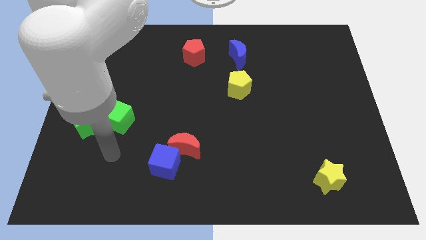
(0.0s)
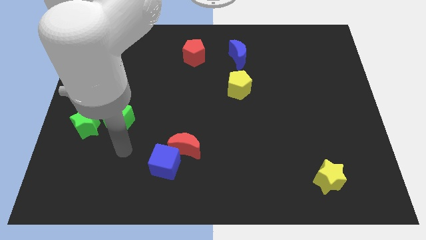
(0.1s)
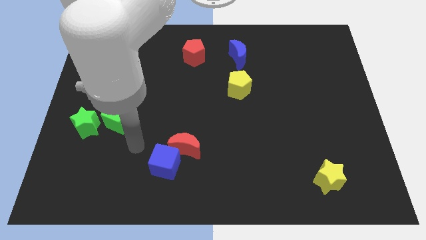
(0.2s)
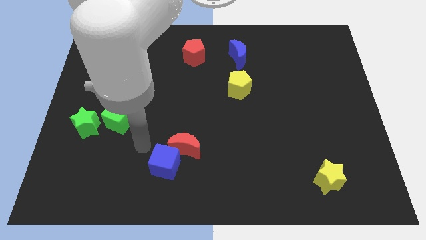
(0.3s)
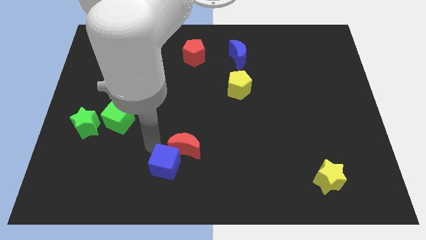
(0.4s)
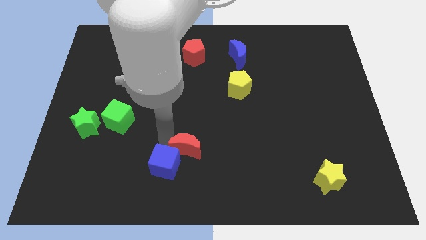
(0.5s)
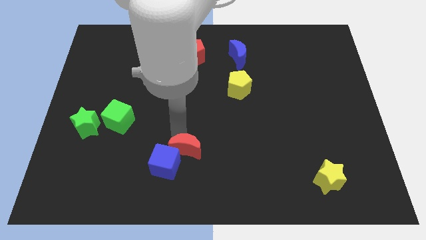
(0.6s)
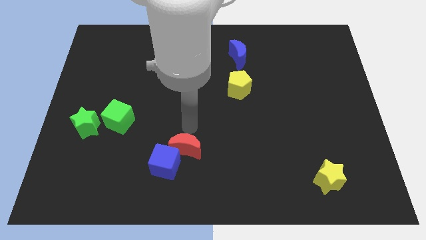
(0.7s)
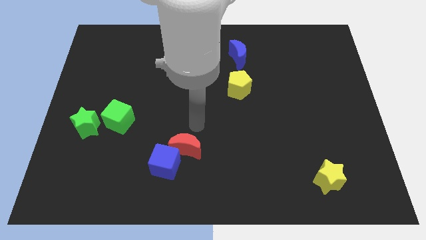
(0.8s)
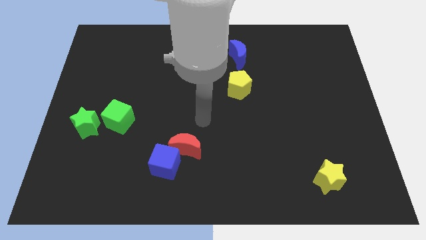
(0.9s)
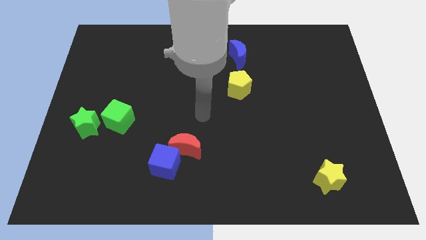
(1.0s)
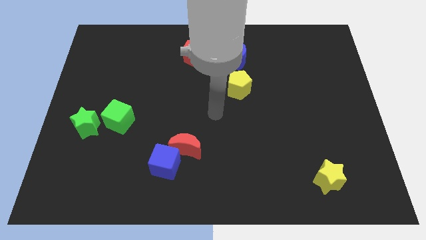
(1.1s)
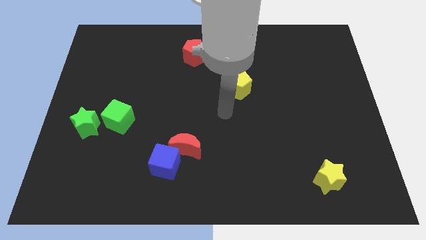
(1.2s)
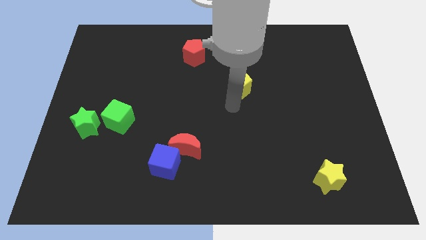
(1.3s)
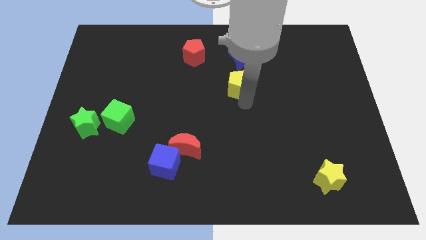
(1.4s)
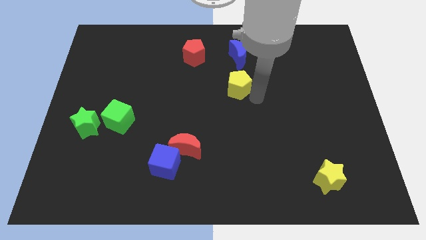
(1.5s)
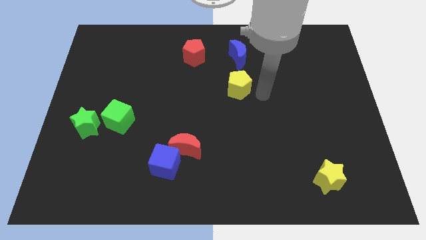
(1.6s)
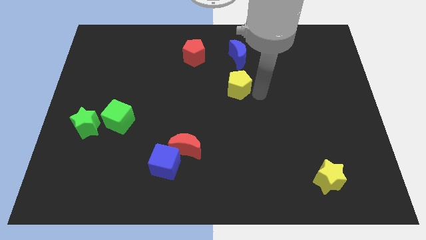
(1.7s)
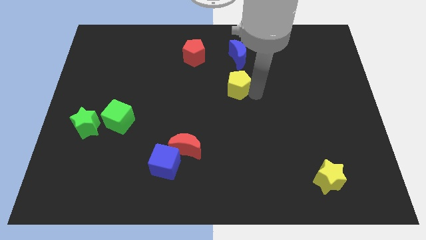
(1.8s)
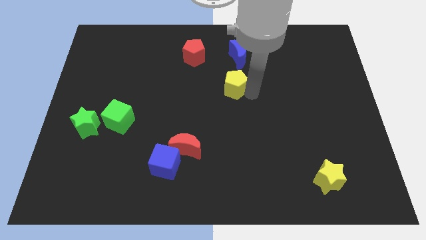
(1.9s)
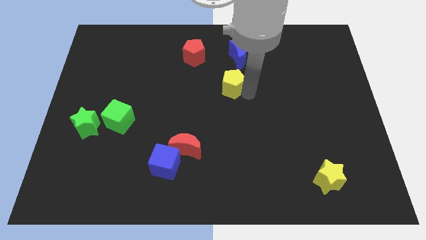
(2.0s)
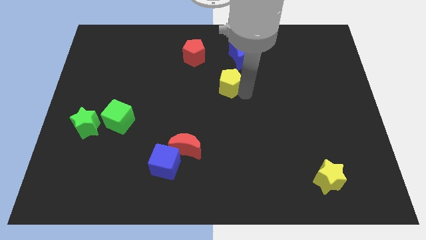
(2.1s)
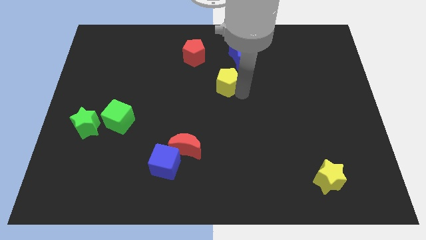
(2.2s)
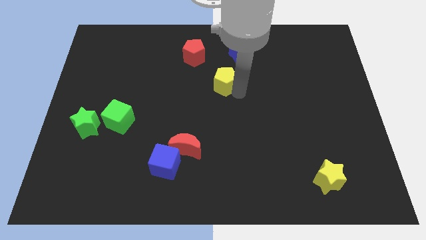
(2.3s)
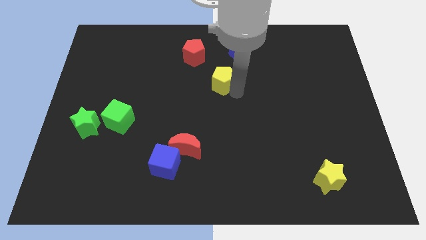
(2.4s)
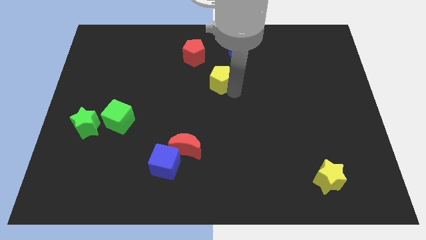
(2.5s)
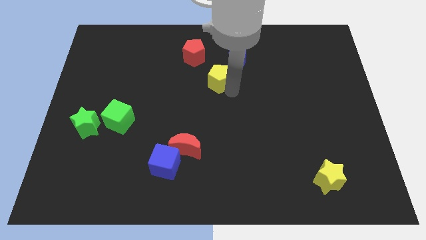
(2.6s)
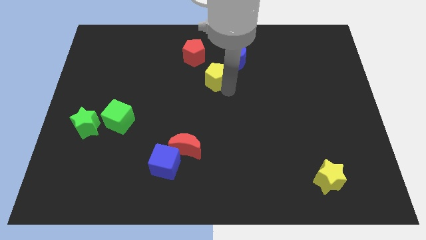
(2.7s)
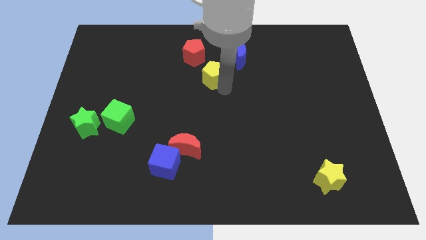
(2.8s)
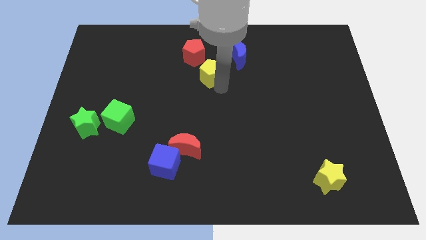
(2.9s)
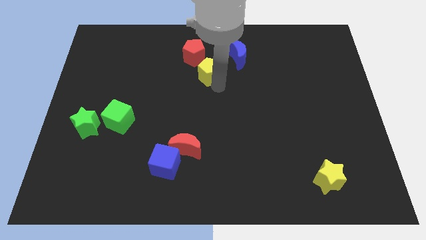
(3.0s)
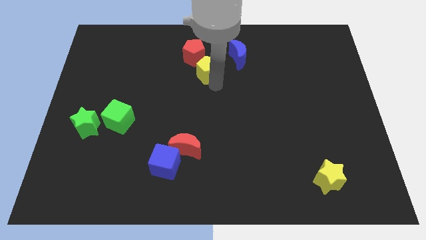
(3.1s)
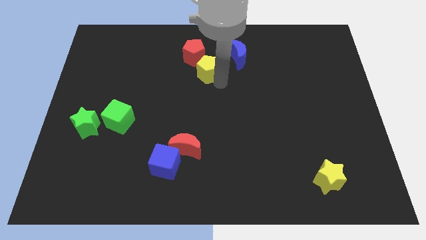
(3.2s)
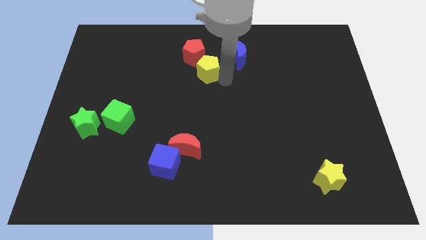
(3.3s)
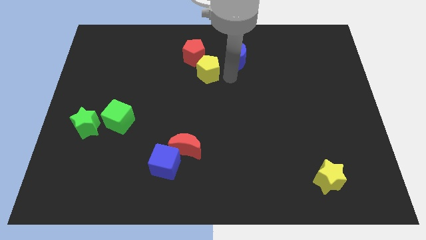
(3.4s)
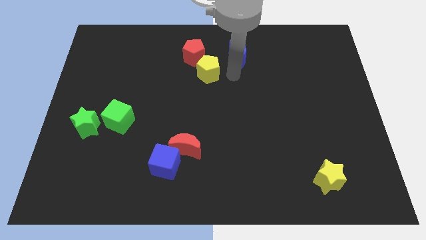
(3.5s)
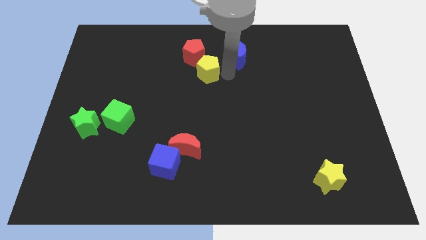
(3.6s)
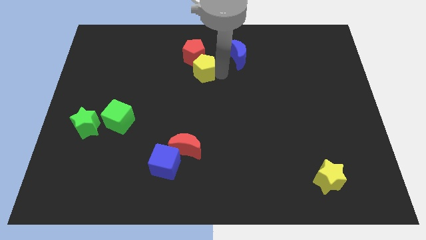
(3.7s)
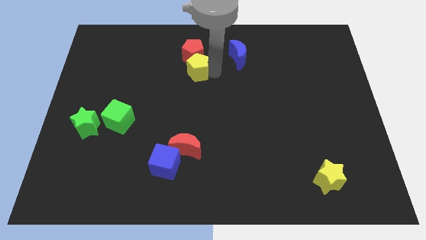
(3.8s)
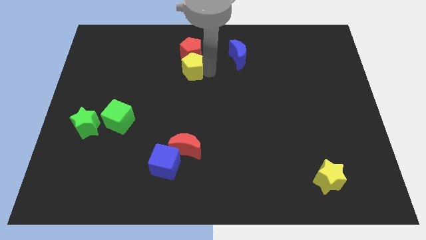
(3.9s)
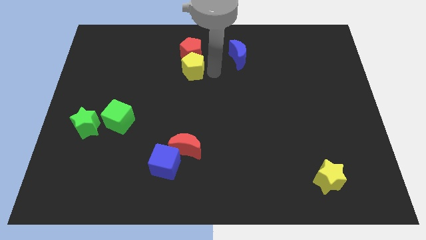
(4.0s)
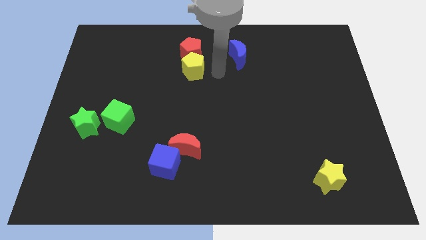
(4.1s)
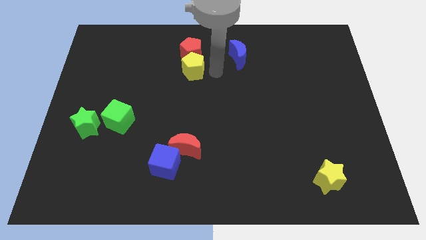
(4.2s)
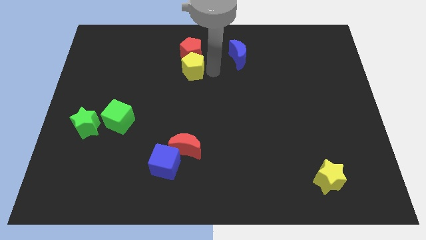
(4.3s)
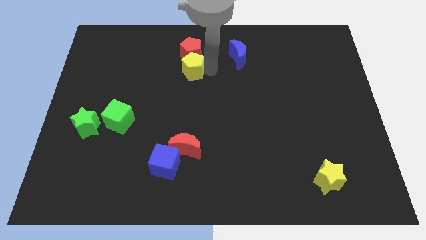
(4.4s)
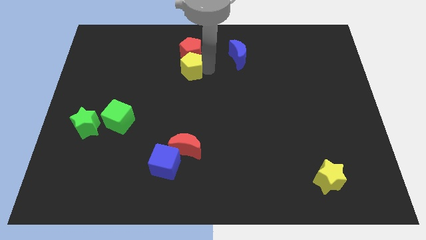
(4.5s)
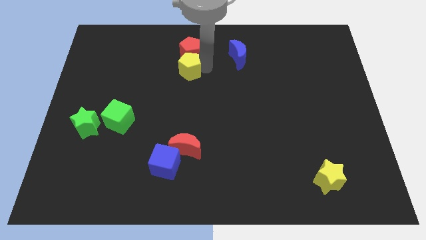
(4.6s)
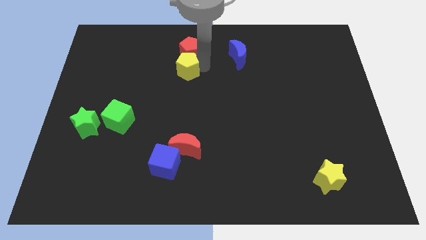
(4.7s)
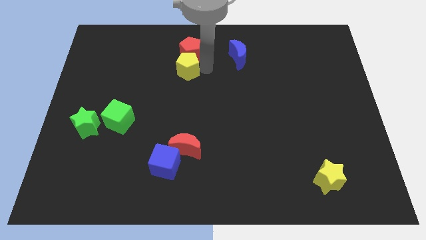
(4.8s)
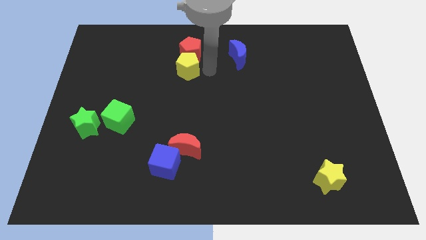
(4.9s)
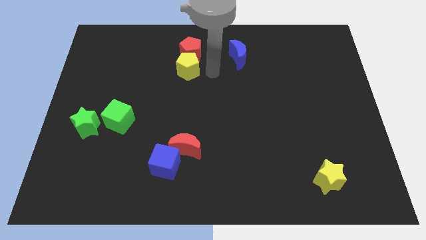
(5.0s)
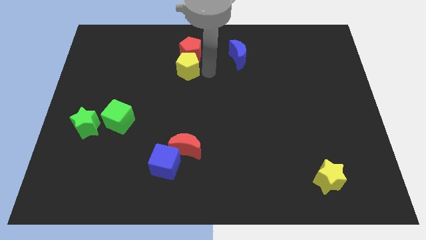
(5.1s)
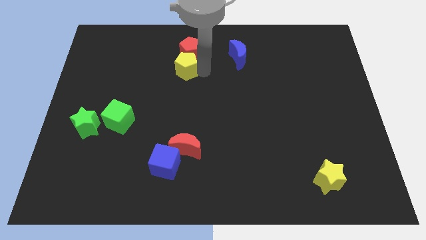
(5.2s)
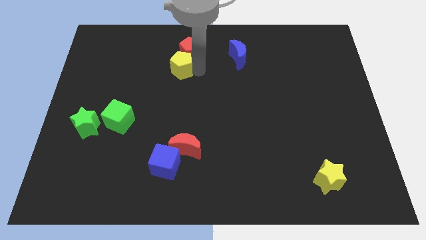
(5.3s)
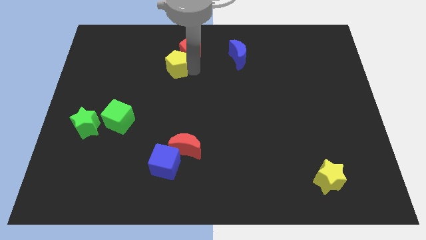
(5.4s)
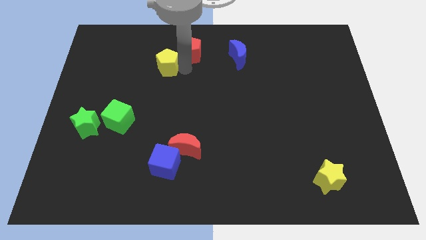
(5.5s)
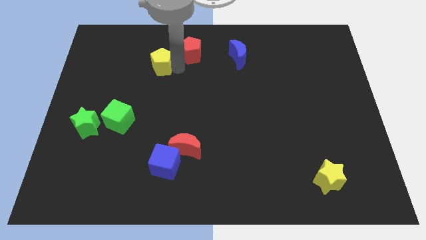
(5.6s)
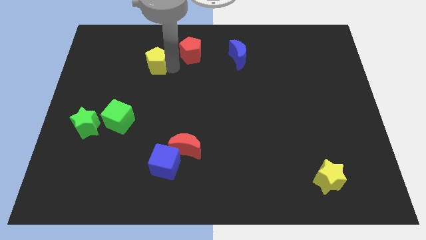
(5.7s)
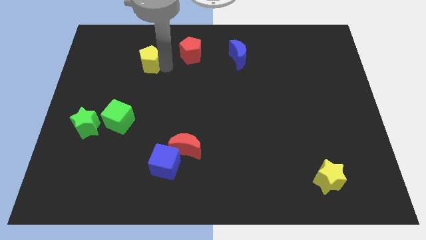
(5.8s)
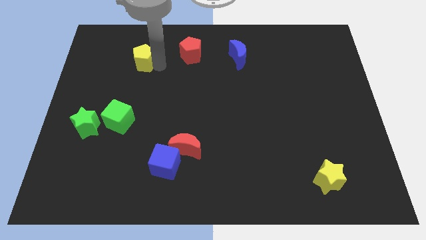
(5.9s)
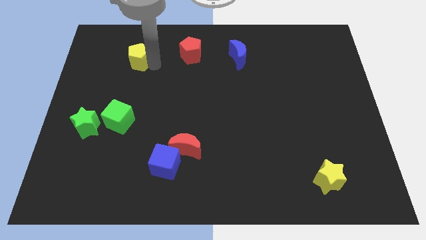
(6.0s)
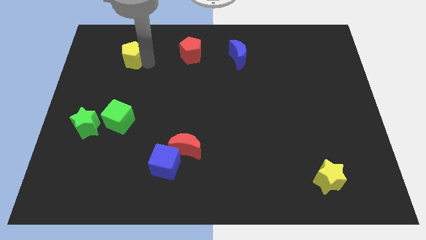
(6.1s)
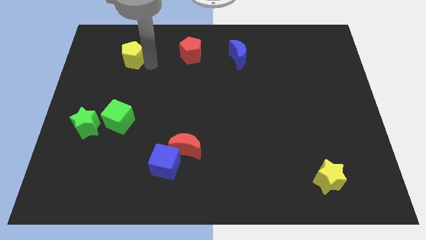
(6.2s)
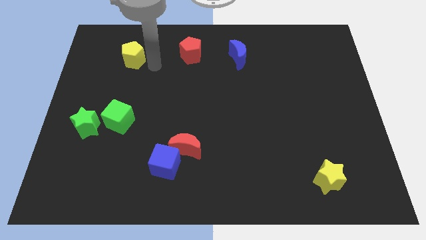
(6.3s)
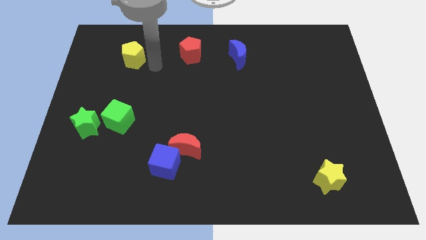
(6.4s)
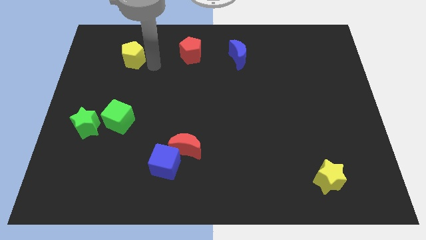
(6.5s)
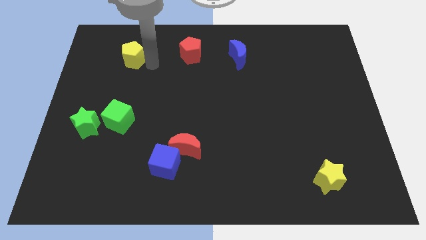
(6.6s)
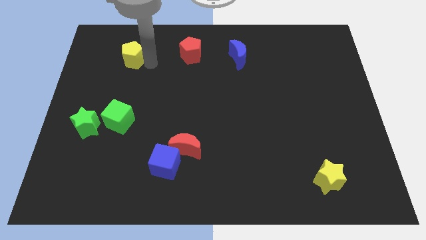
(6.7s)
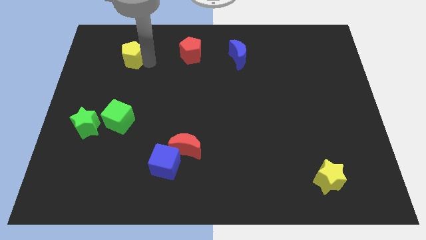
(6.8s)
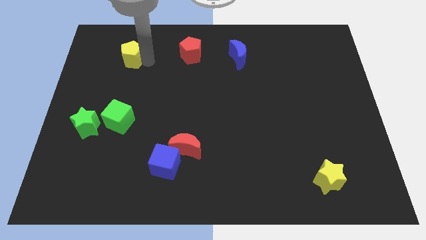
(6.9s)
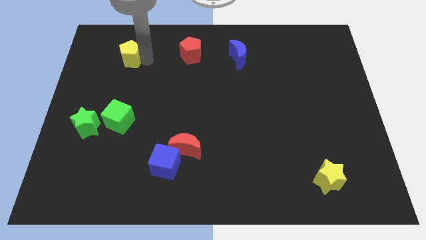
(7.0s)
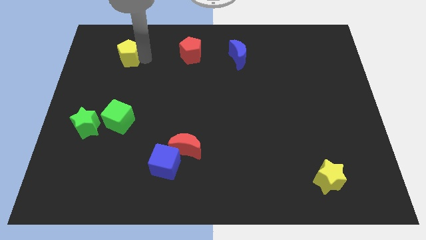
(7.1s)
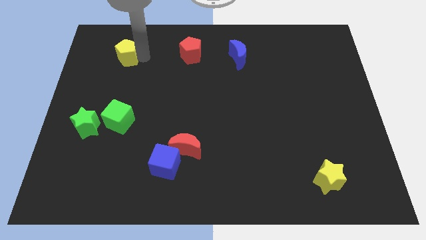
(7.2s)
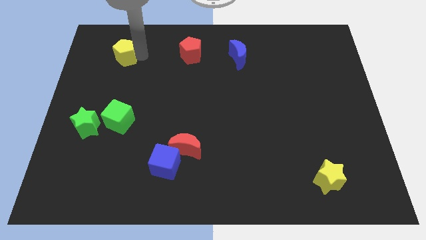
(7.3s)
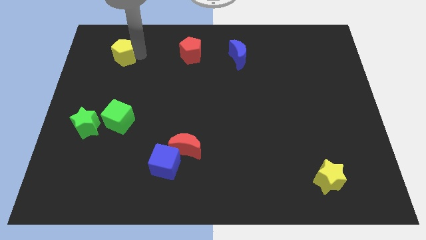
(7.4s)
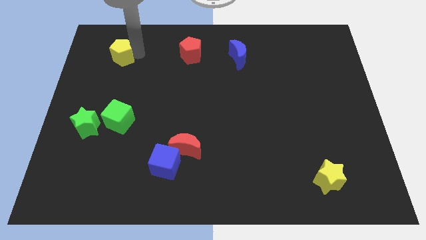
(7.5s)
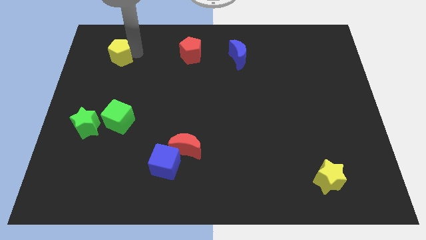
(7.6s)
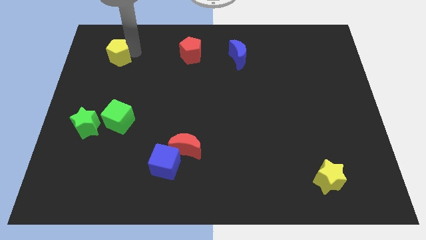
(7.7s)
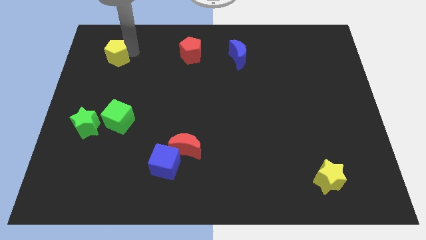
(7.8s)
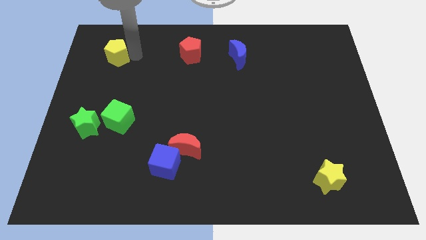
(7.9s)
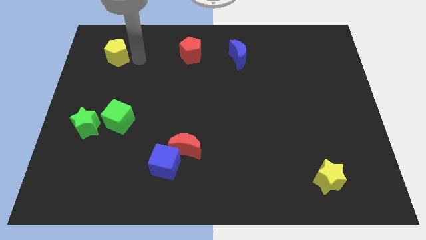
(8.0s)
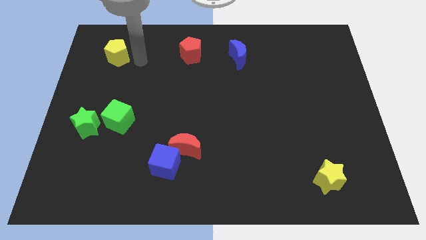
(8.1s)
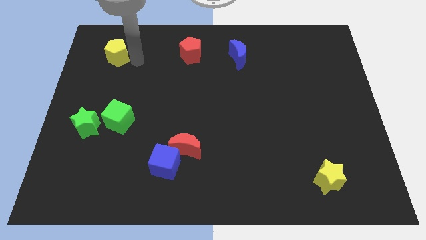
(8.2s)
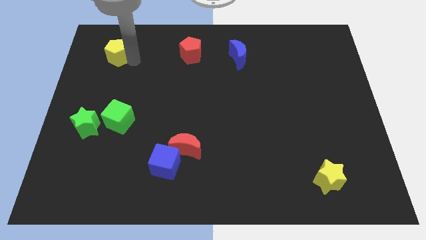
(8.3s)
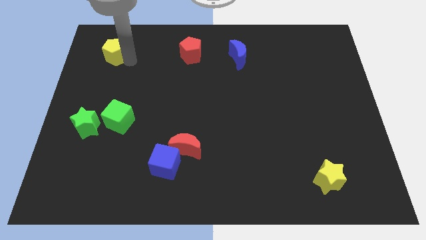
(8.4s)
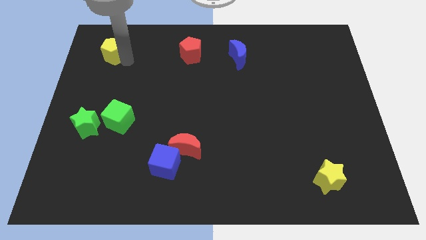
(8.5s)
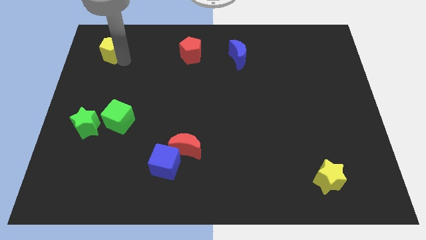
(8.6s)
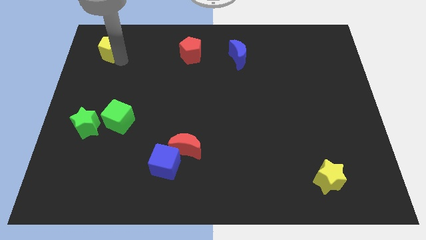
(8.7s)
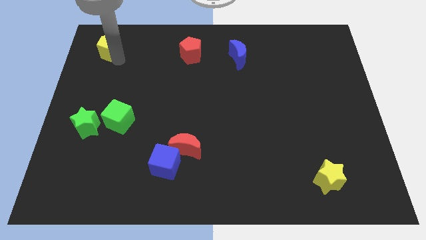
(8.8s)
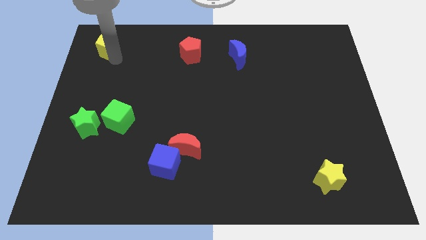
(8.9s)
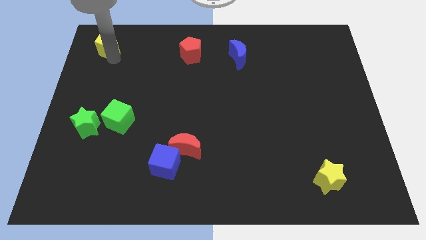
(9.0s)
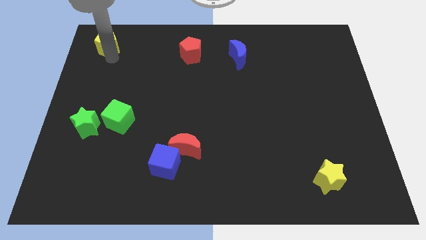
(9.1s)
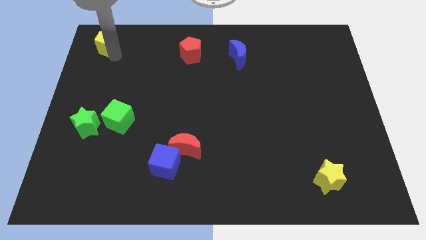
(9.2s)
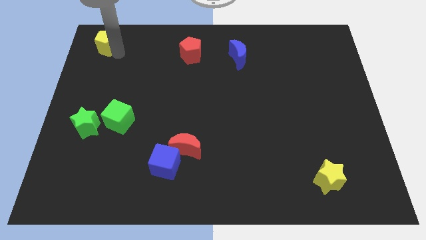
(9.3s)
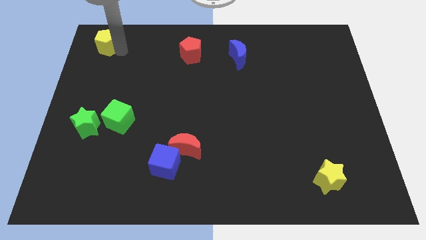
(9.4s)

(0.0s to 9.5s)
put the yellow pentagon to the upper left corner
